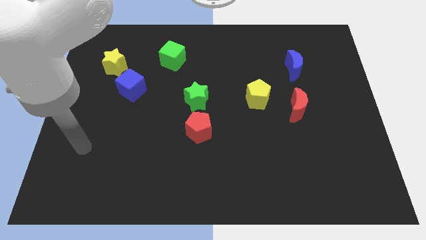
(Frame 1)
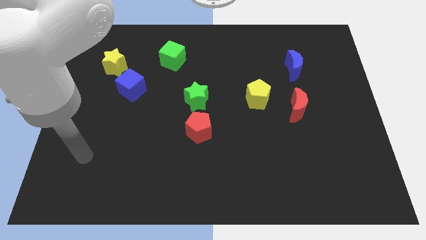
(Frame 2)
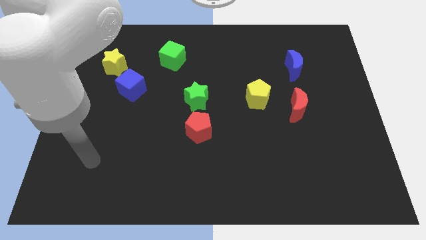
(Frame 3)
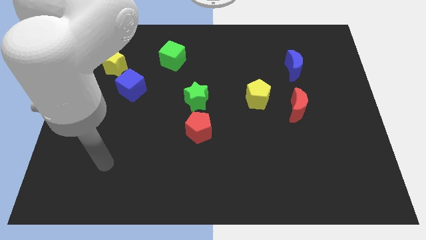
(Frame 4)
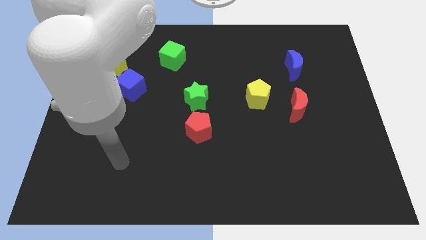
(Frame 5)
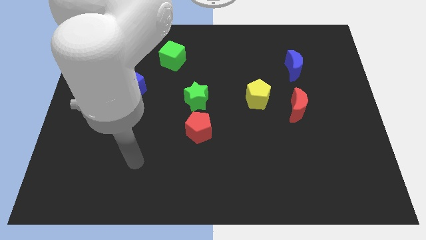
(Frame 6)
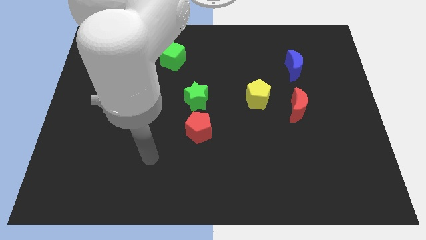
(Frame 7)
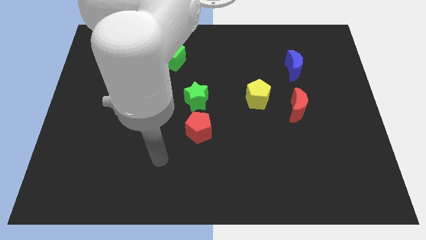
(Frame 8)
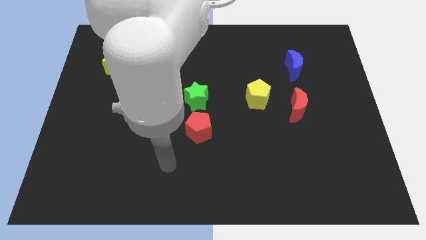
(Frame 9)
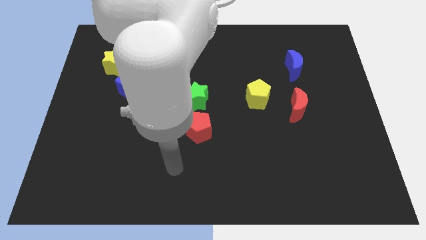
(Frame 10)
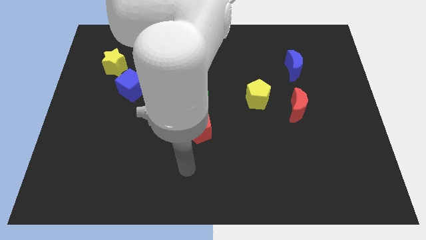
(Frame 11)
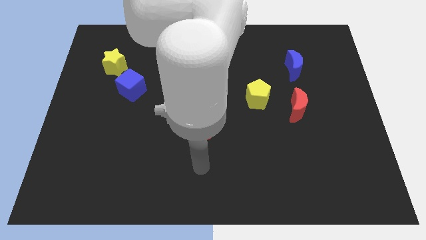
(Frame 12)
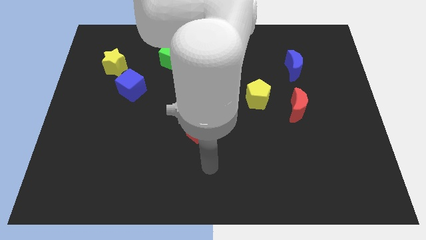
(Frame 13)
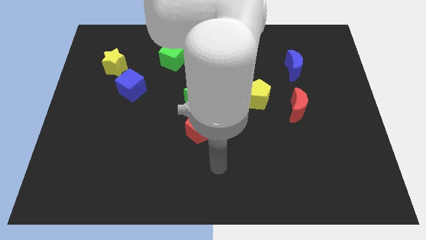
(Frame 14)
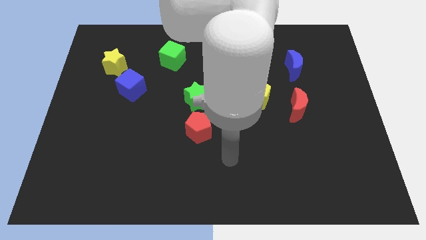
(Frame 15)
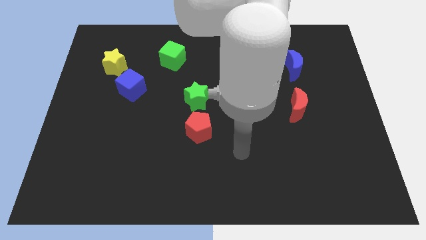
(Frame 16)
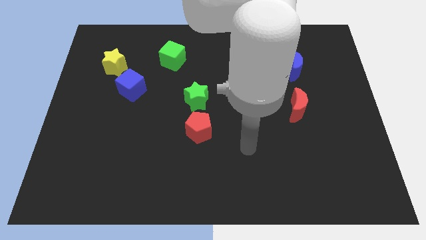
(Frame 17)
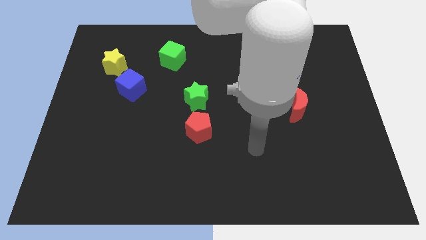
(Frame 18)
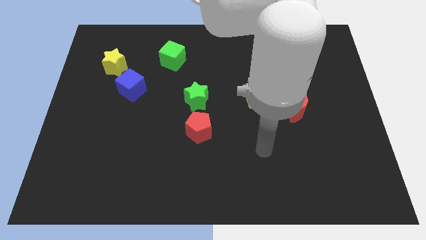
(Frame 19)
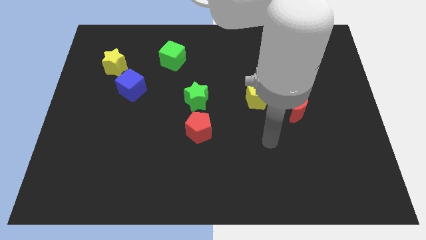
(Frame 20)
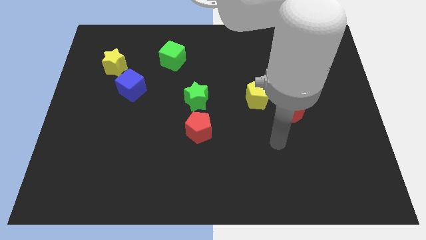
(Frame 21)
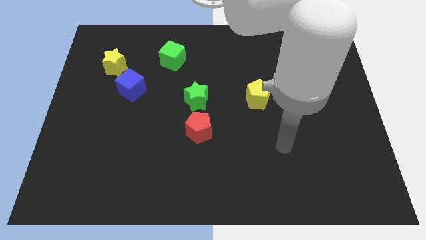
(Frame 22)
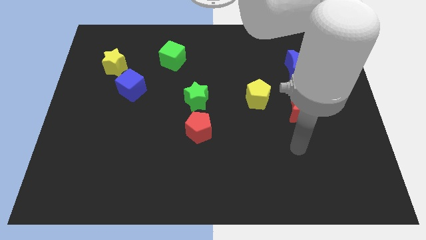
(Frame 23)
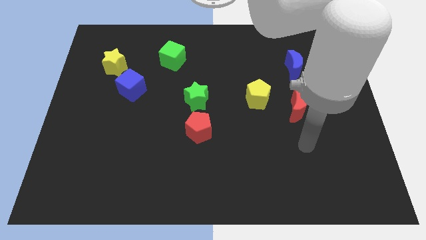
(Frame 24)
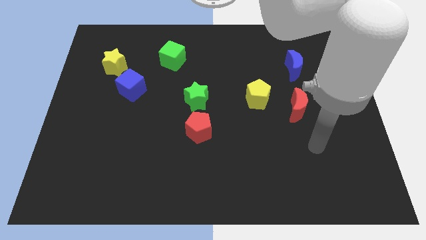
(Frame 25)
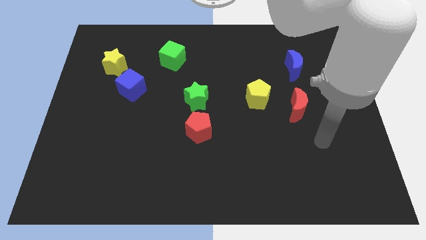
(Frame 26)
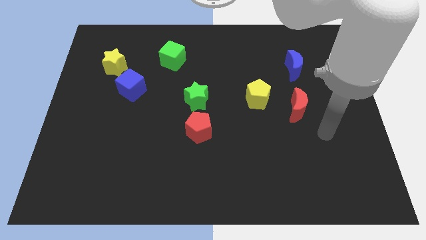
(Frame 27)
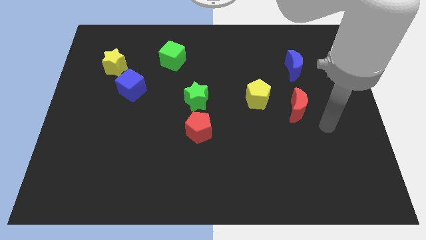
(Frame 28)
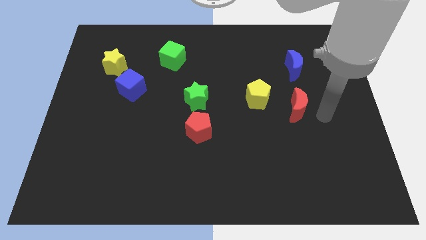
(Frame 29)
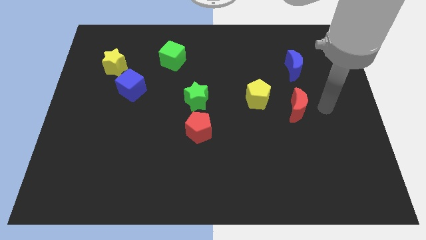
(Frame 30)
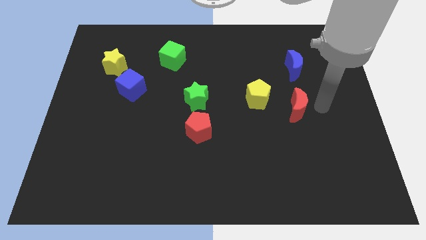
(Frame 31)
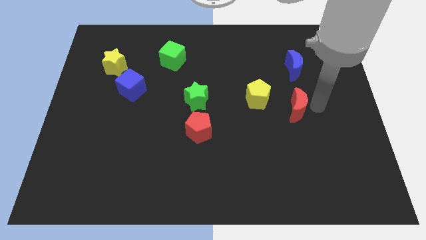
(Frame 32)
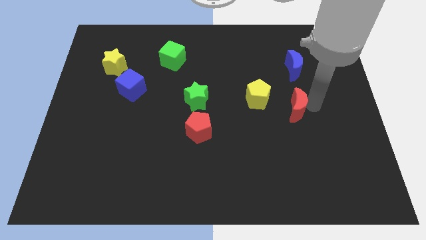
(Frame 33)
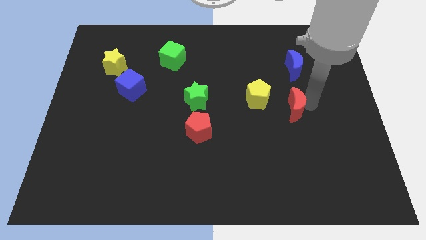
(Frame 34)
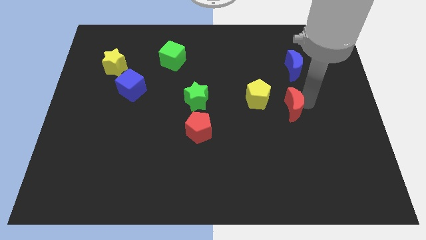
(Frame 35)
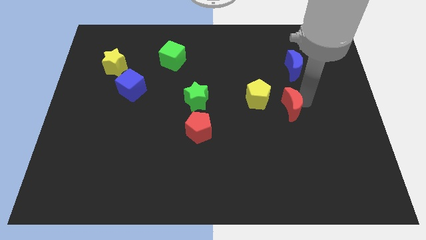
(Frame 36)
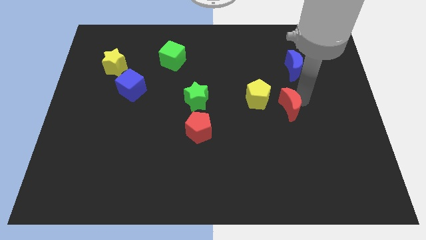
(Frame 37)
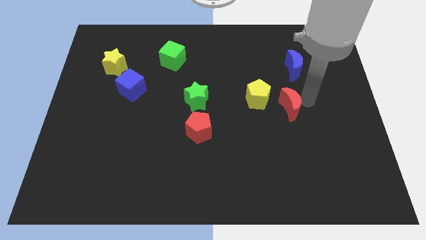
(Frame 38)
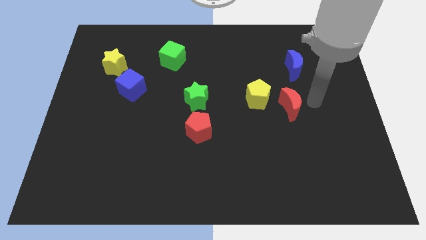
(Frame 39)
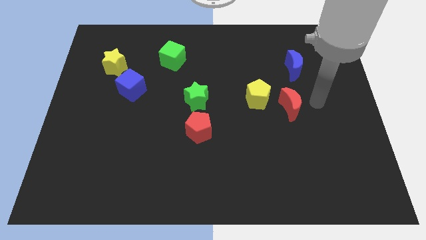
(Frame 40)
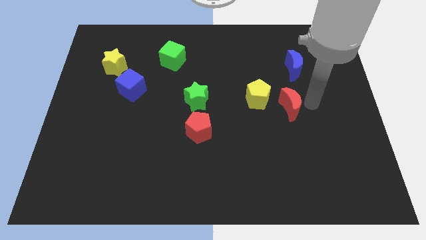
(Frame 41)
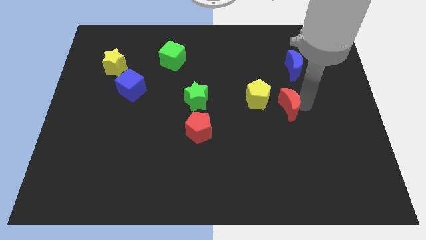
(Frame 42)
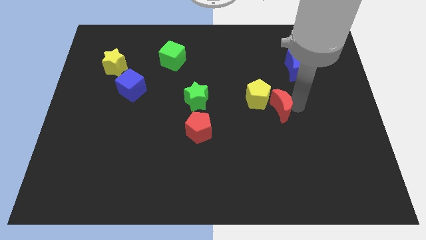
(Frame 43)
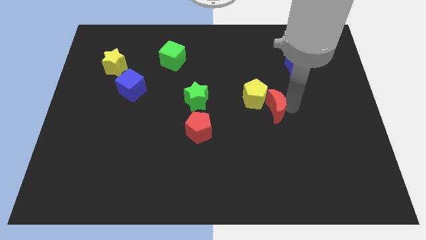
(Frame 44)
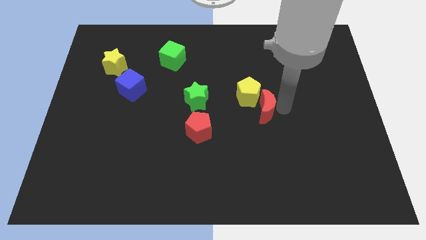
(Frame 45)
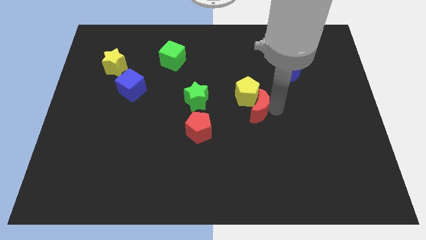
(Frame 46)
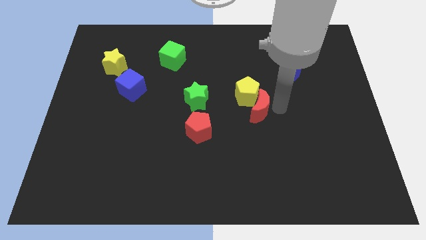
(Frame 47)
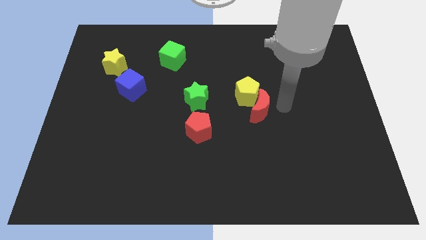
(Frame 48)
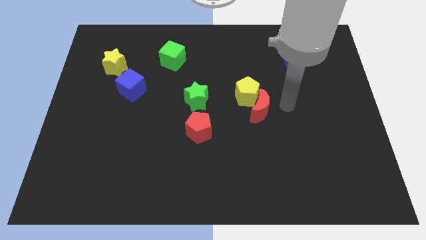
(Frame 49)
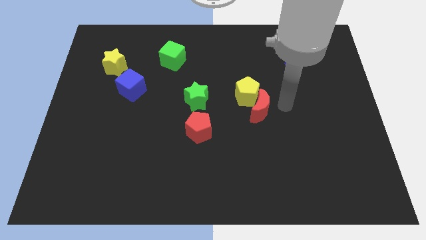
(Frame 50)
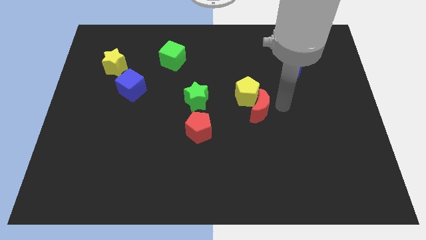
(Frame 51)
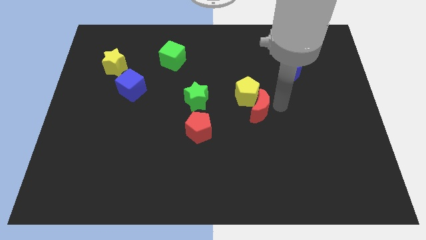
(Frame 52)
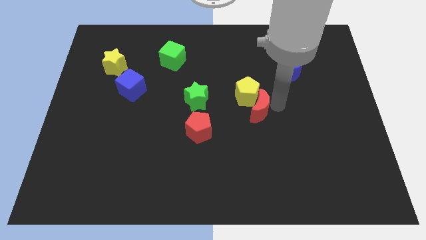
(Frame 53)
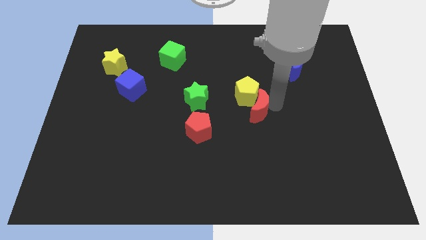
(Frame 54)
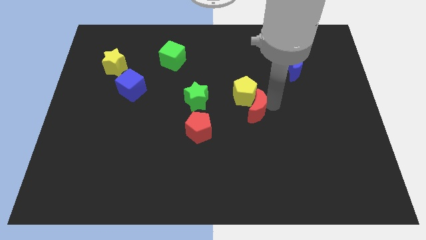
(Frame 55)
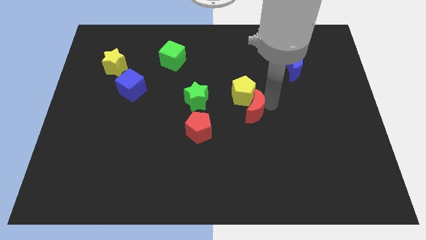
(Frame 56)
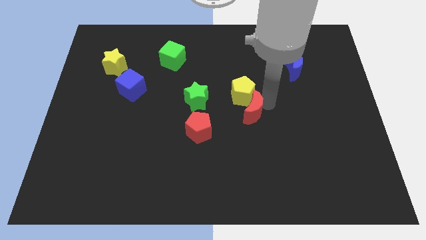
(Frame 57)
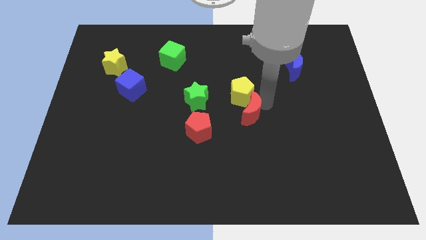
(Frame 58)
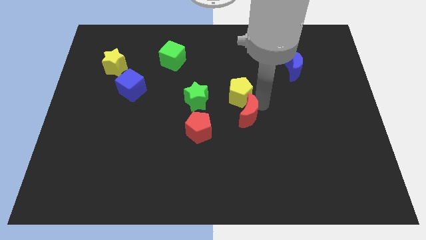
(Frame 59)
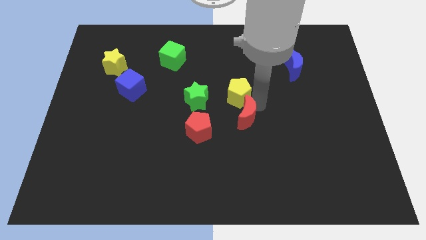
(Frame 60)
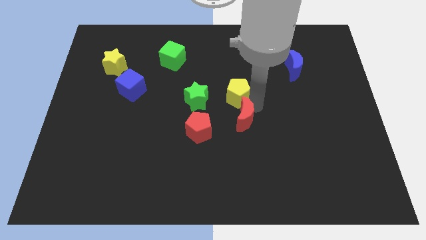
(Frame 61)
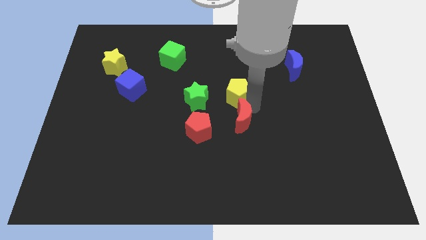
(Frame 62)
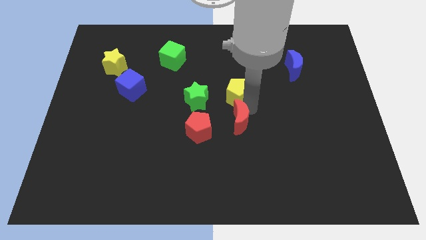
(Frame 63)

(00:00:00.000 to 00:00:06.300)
move the red moon to the bottom right of the green star

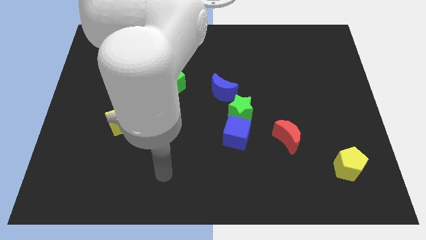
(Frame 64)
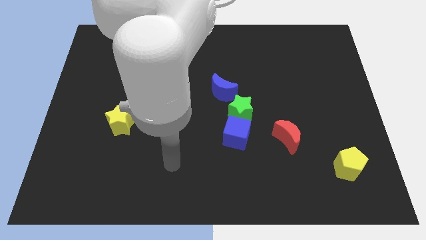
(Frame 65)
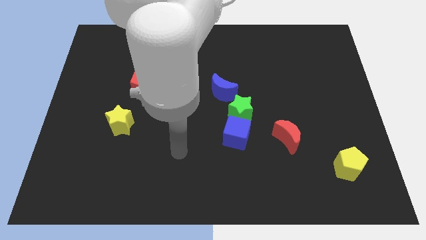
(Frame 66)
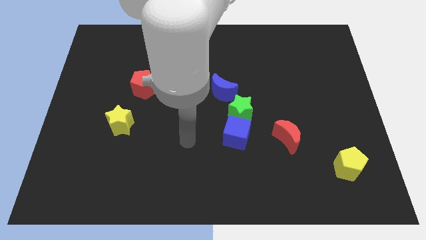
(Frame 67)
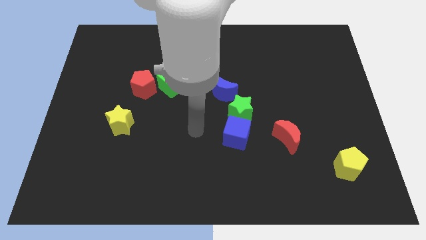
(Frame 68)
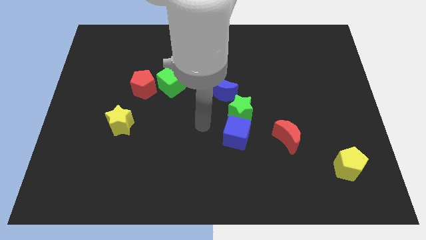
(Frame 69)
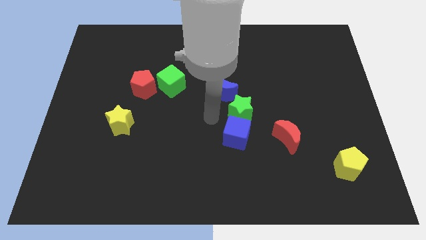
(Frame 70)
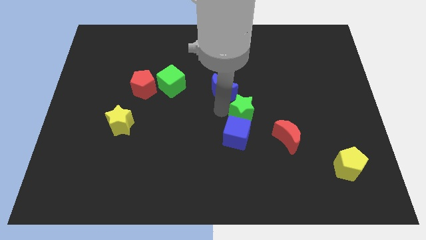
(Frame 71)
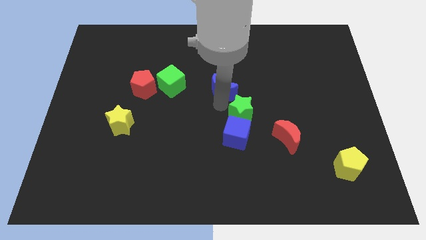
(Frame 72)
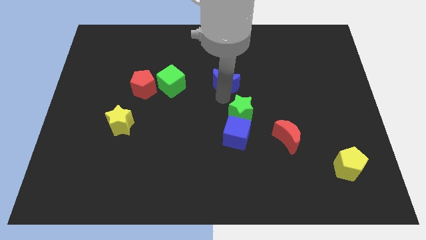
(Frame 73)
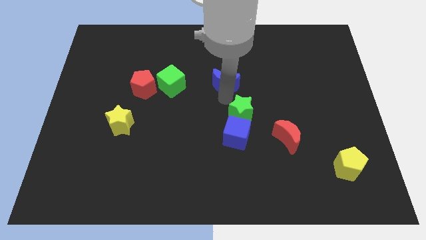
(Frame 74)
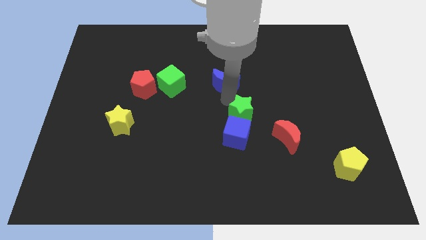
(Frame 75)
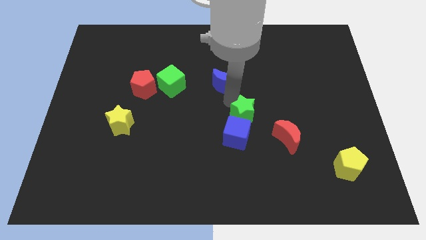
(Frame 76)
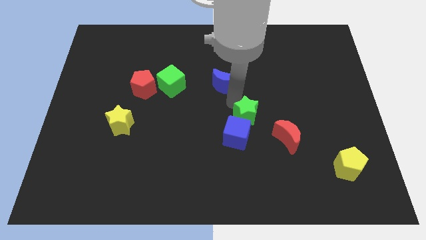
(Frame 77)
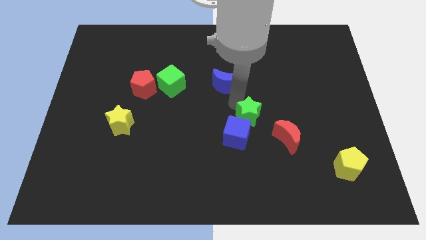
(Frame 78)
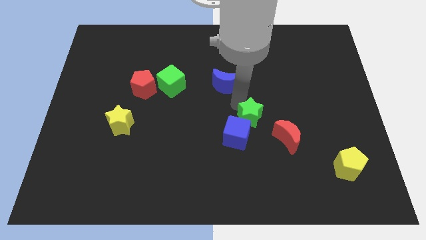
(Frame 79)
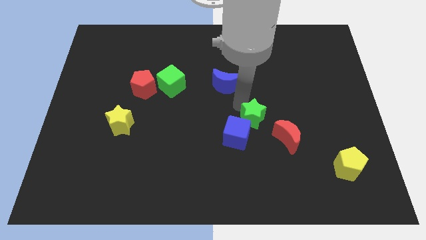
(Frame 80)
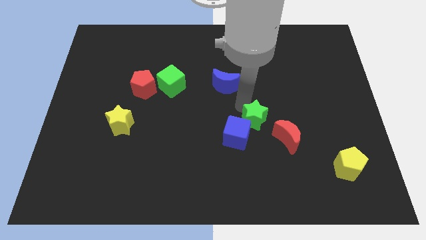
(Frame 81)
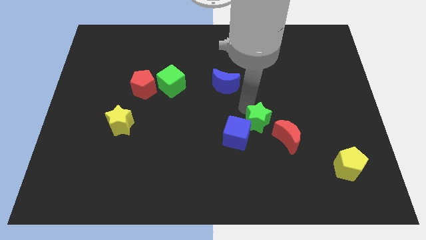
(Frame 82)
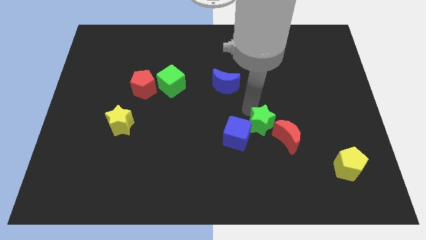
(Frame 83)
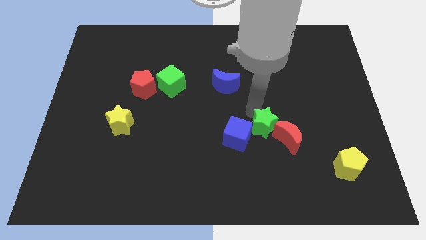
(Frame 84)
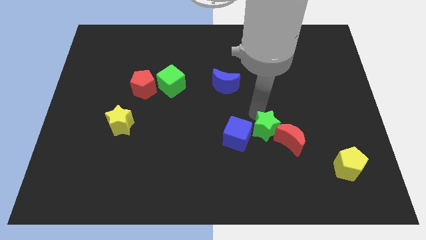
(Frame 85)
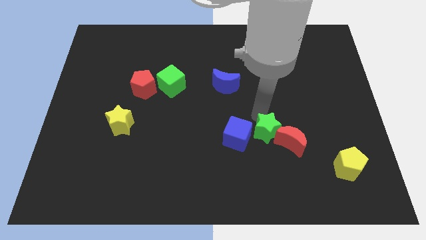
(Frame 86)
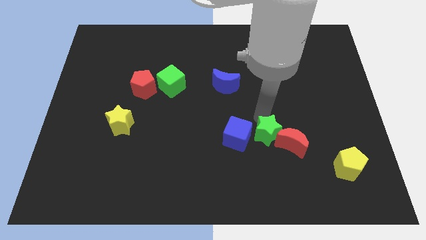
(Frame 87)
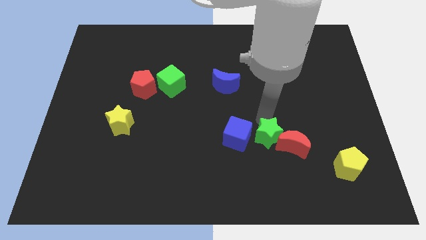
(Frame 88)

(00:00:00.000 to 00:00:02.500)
put the green star diagonally down and to the right of the blue cube
